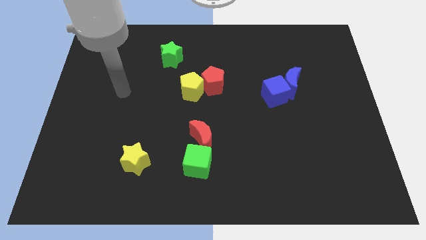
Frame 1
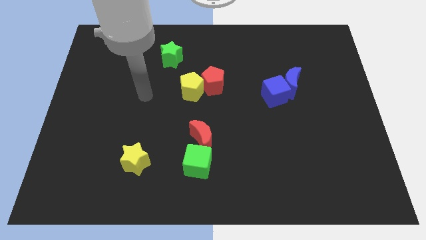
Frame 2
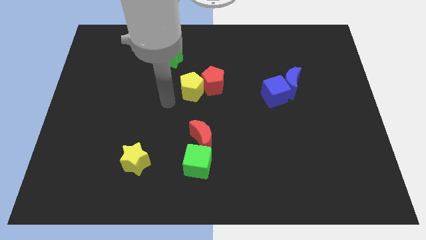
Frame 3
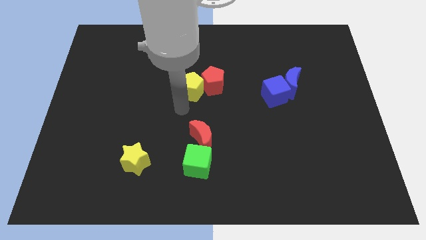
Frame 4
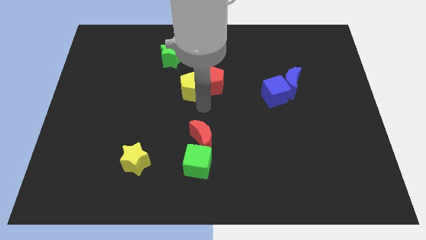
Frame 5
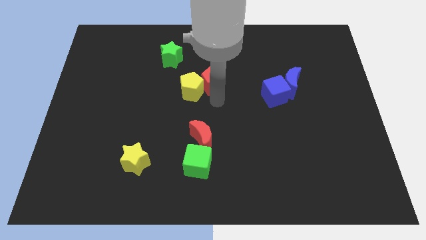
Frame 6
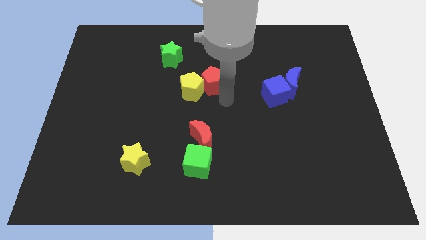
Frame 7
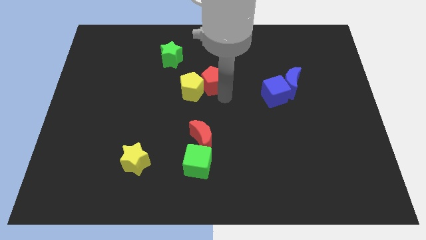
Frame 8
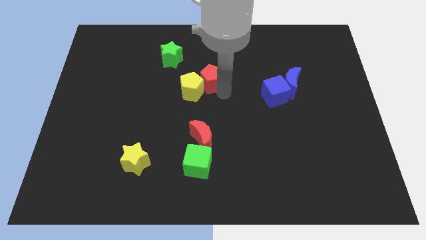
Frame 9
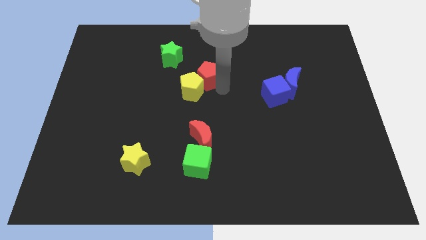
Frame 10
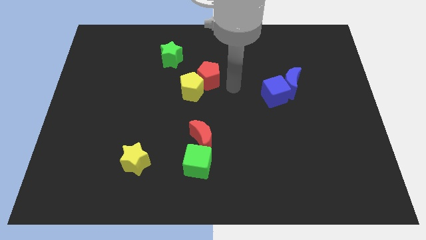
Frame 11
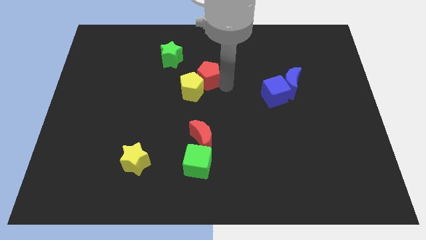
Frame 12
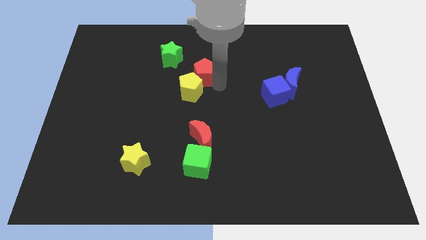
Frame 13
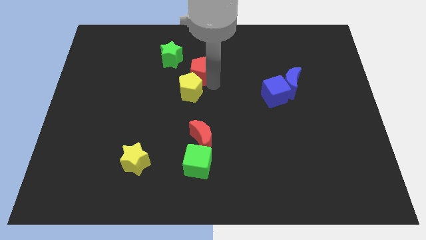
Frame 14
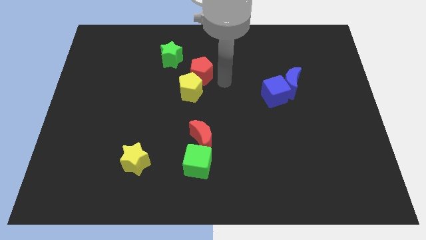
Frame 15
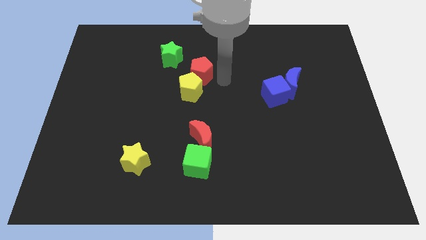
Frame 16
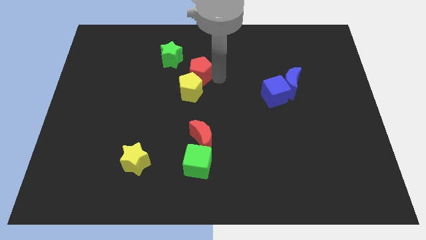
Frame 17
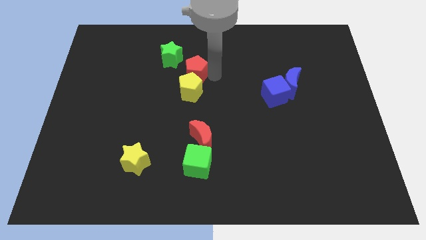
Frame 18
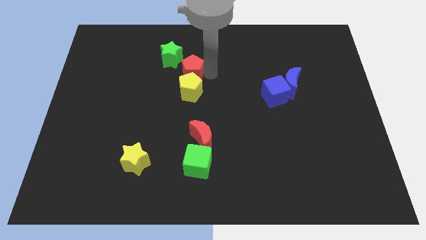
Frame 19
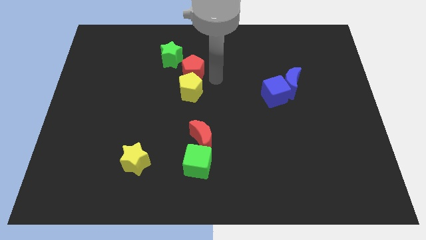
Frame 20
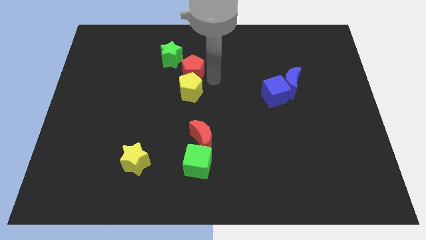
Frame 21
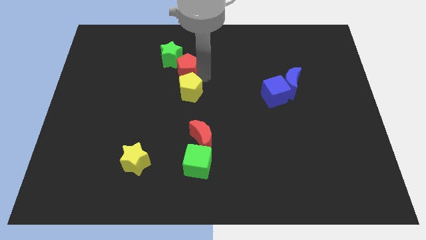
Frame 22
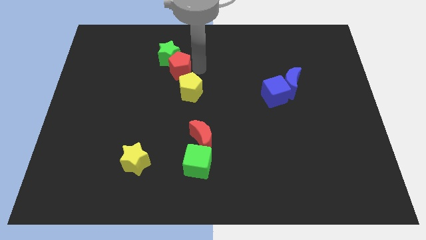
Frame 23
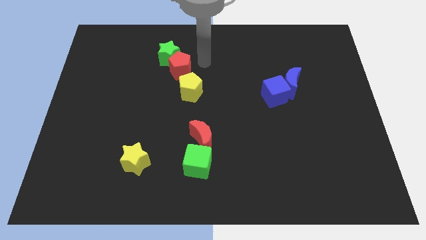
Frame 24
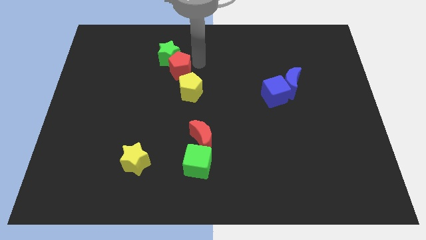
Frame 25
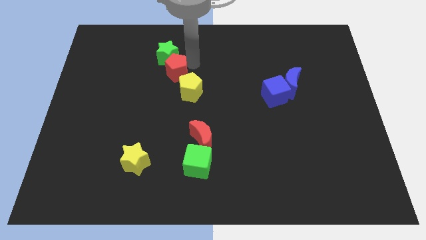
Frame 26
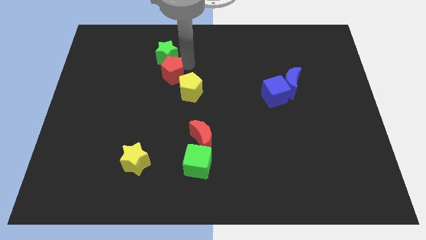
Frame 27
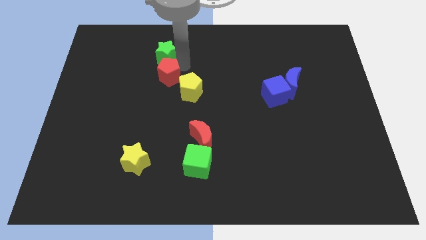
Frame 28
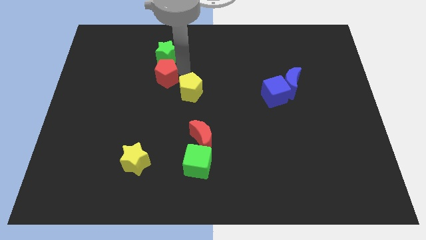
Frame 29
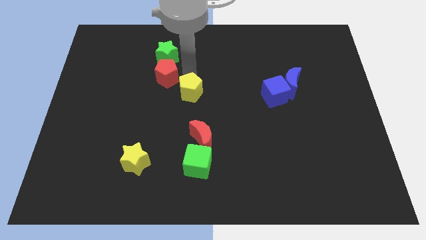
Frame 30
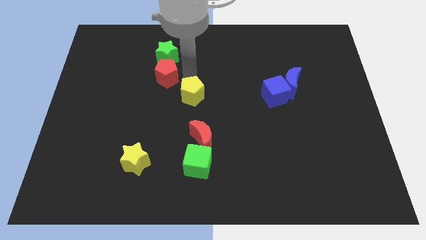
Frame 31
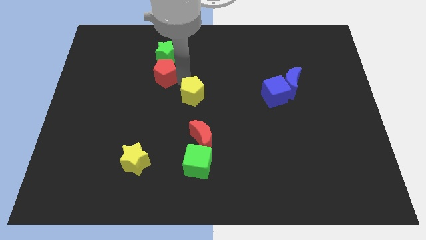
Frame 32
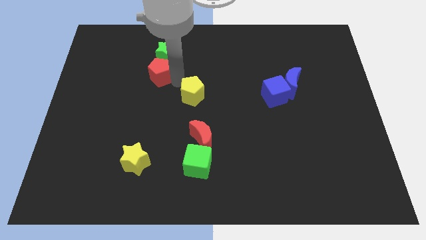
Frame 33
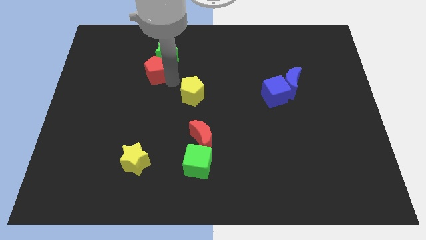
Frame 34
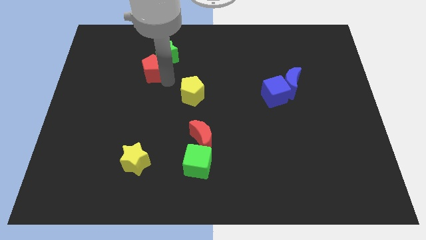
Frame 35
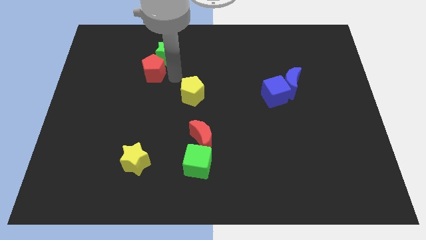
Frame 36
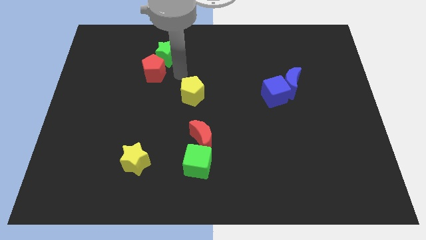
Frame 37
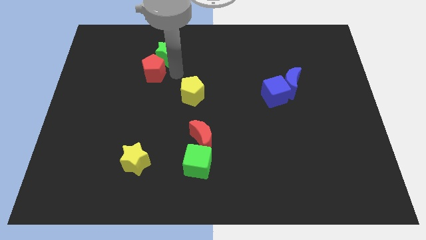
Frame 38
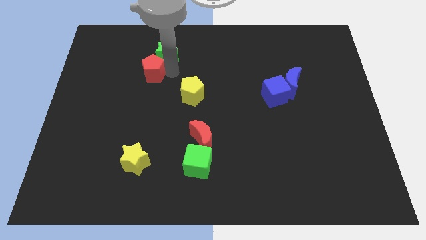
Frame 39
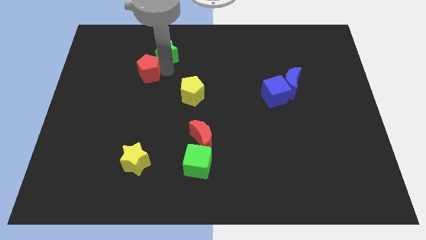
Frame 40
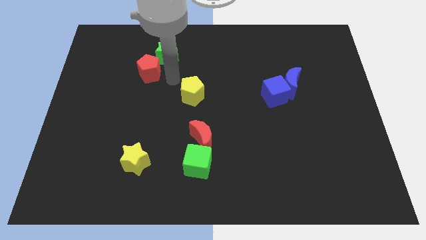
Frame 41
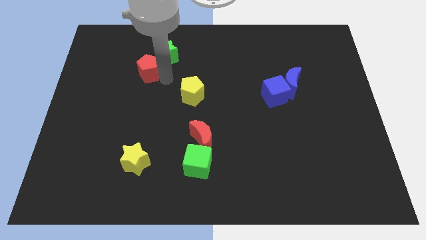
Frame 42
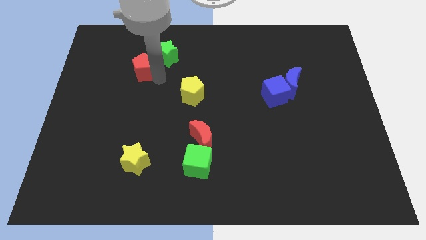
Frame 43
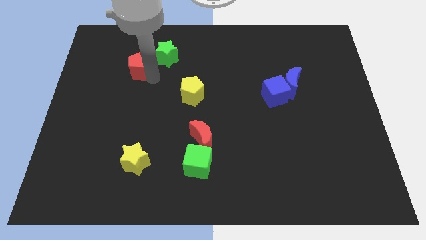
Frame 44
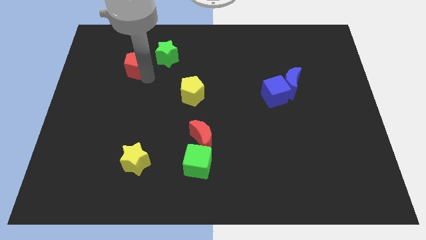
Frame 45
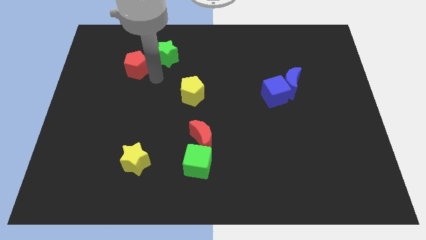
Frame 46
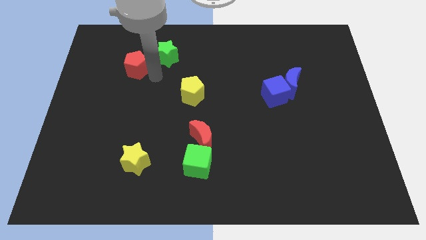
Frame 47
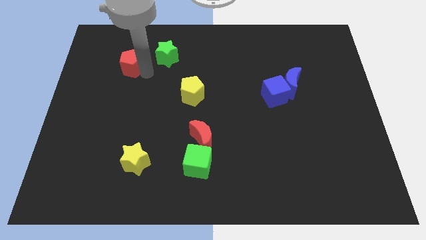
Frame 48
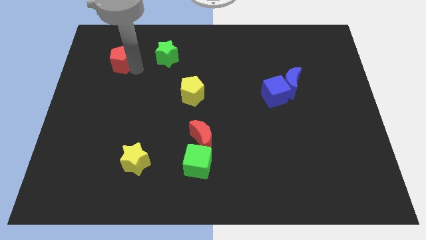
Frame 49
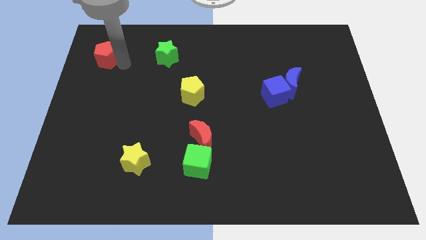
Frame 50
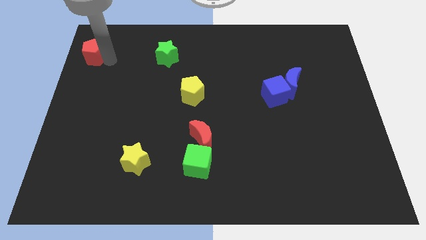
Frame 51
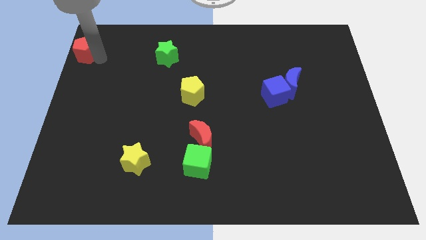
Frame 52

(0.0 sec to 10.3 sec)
push the red pentagon to the top left of the board
